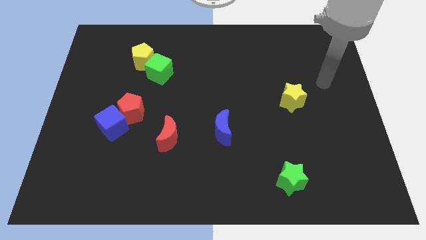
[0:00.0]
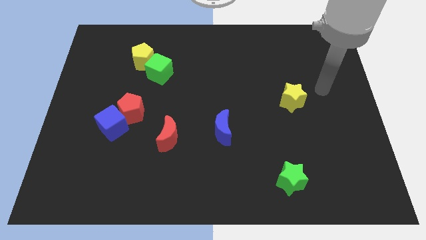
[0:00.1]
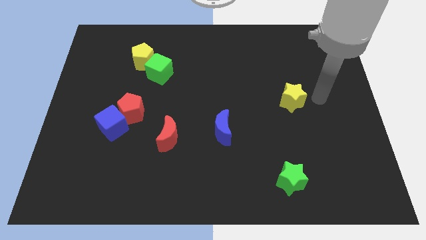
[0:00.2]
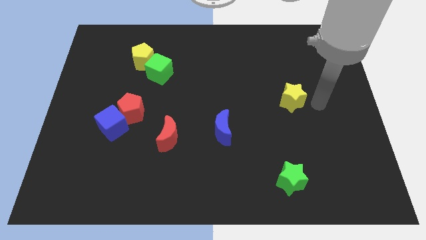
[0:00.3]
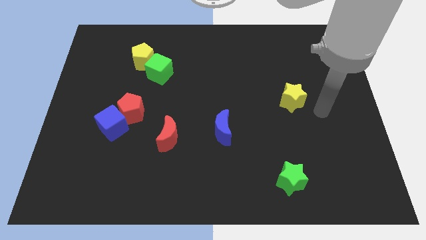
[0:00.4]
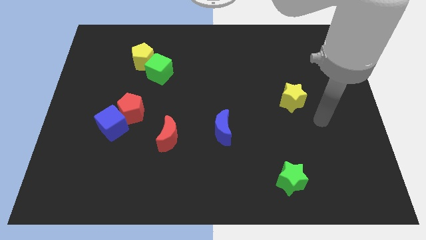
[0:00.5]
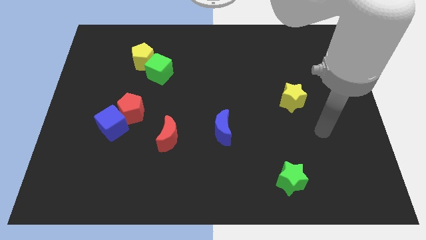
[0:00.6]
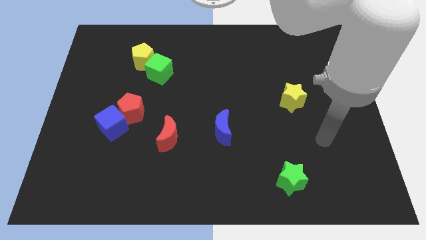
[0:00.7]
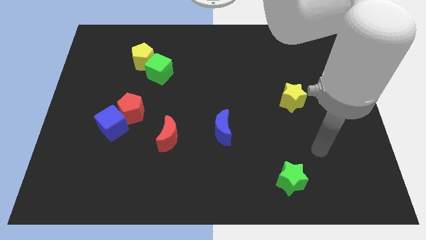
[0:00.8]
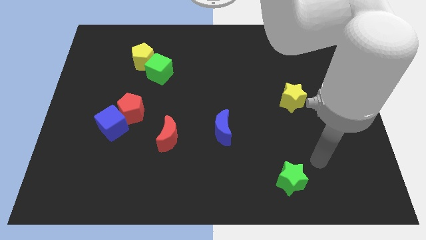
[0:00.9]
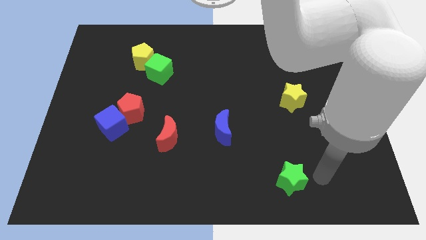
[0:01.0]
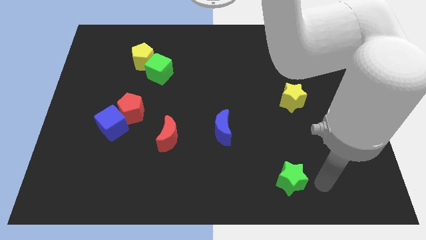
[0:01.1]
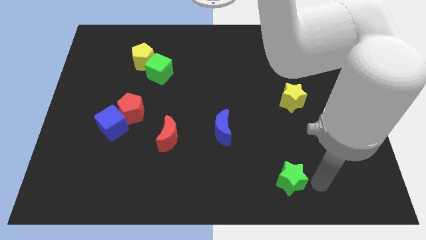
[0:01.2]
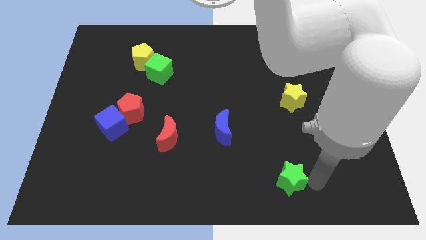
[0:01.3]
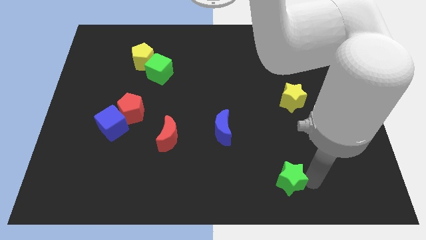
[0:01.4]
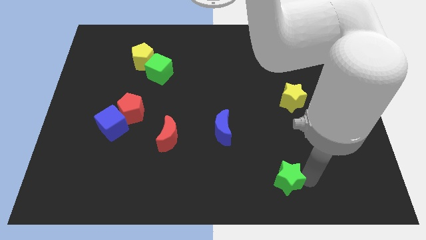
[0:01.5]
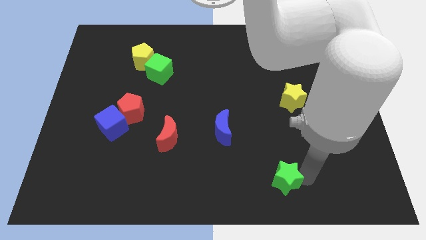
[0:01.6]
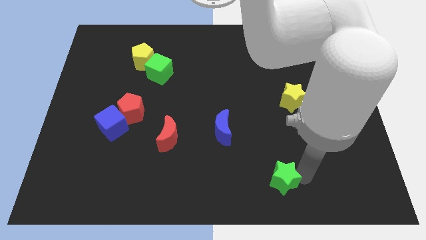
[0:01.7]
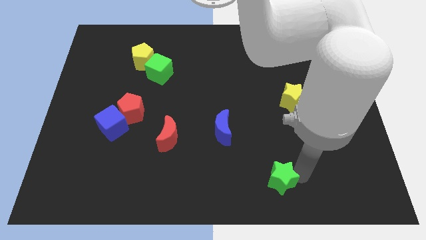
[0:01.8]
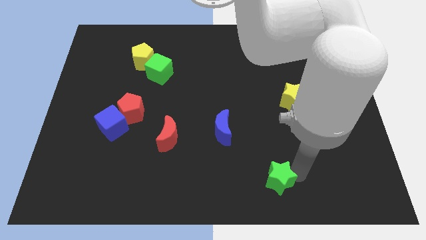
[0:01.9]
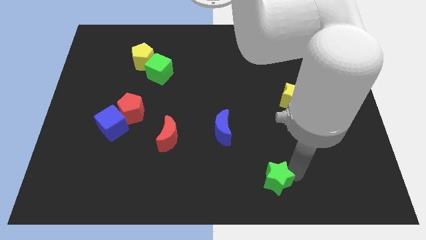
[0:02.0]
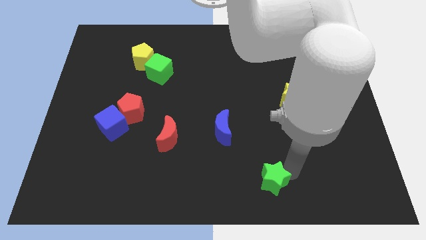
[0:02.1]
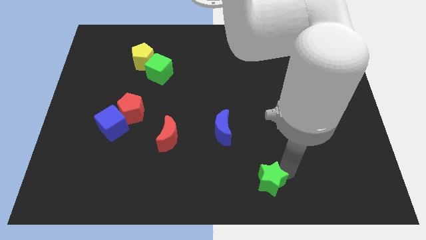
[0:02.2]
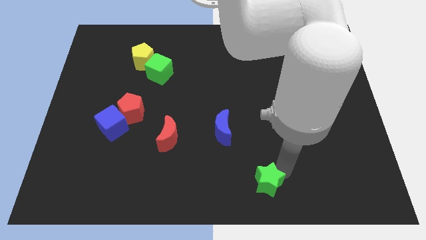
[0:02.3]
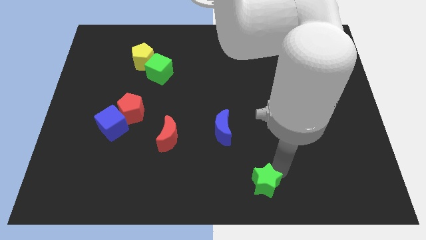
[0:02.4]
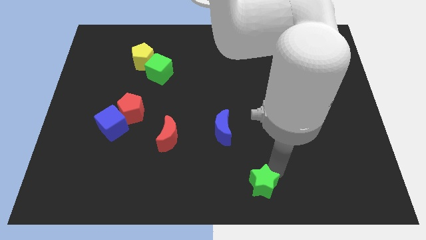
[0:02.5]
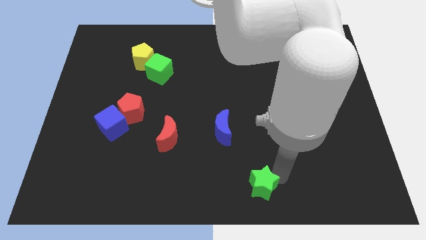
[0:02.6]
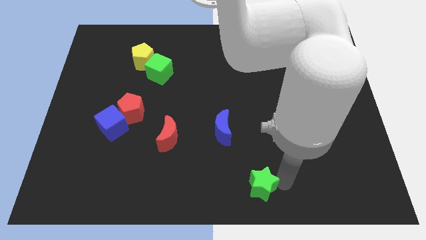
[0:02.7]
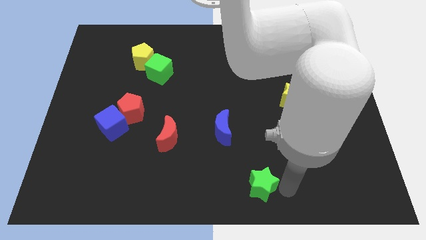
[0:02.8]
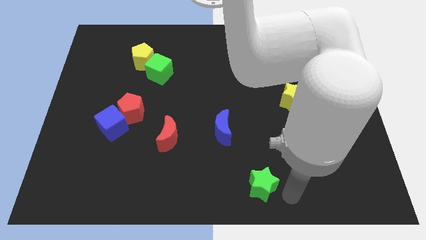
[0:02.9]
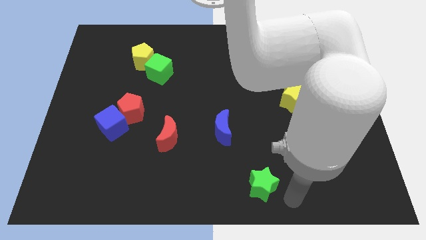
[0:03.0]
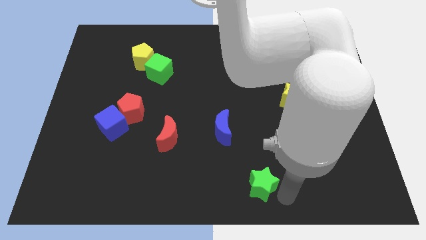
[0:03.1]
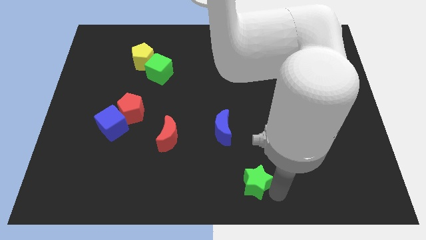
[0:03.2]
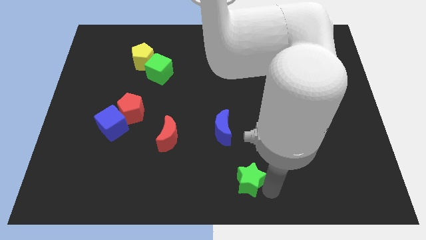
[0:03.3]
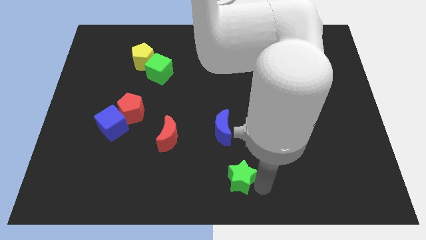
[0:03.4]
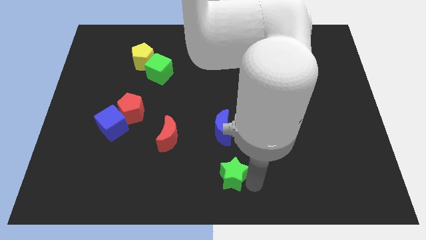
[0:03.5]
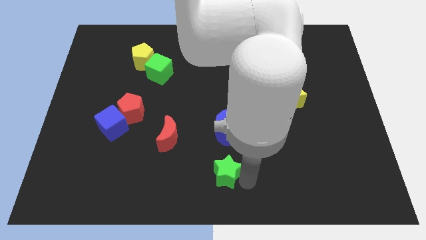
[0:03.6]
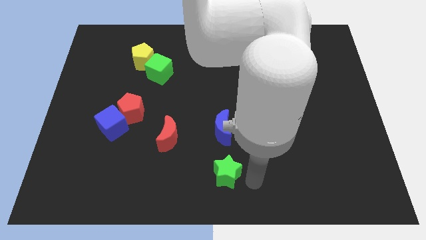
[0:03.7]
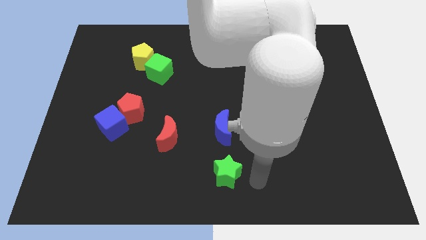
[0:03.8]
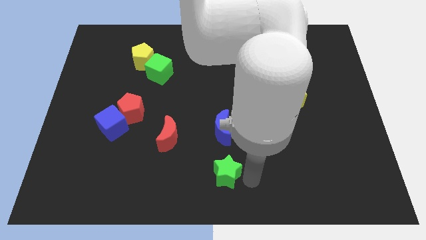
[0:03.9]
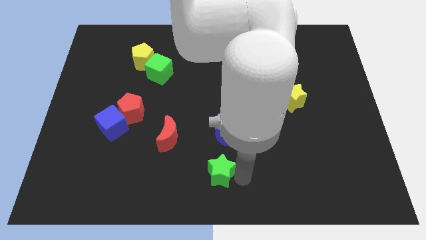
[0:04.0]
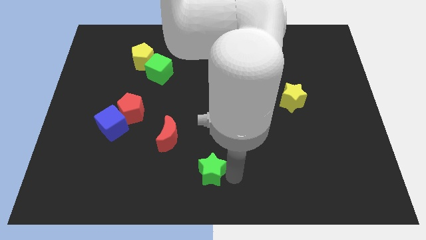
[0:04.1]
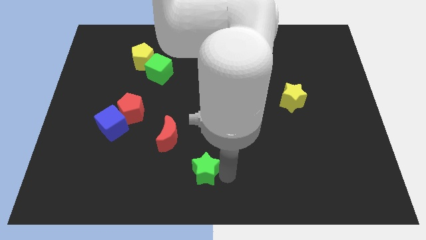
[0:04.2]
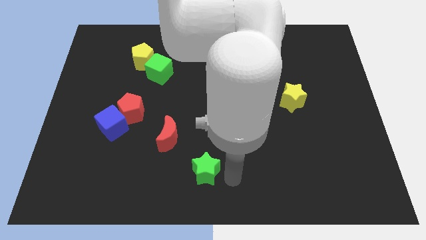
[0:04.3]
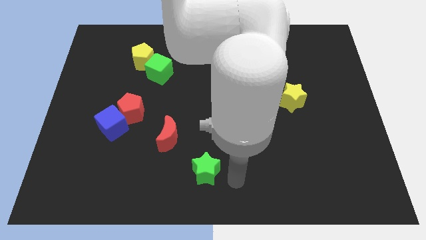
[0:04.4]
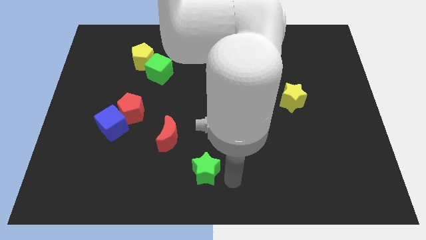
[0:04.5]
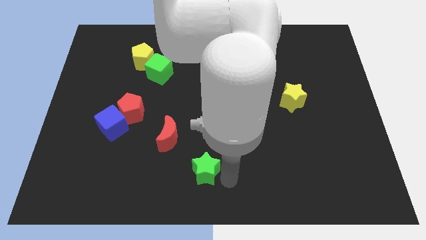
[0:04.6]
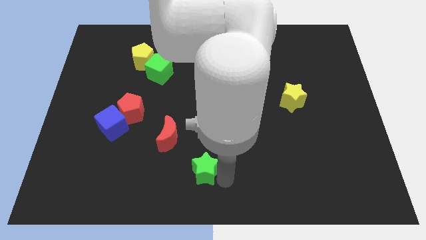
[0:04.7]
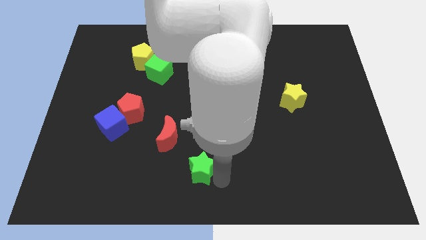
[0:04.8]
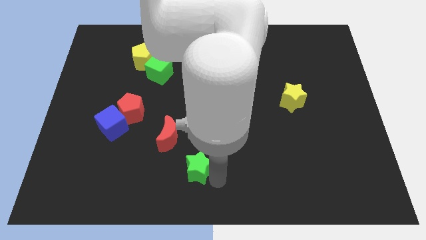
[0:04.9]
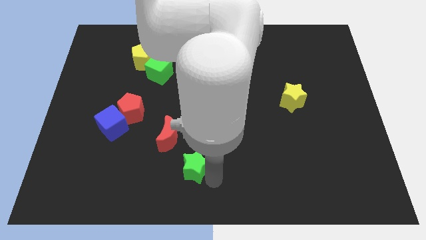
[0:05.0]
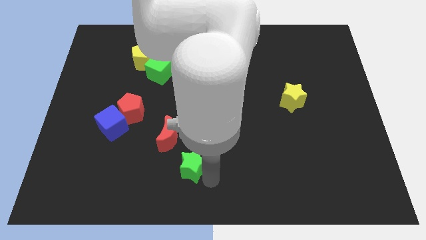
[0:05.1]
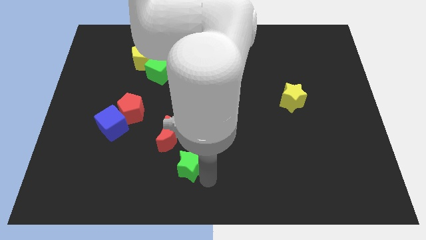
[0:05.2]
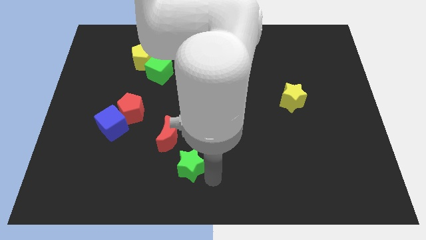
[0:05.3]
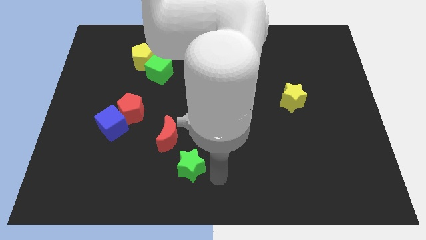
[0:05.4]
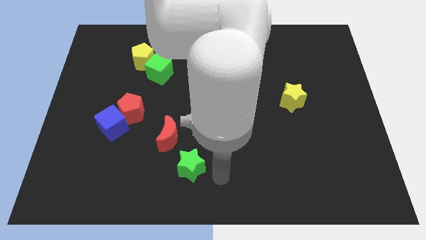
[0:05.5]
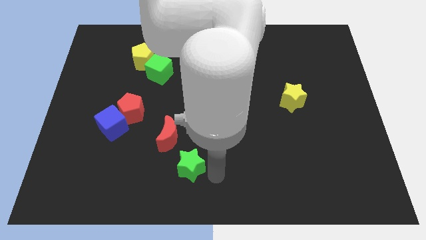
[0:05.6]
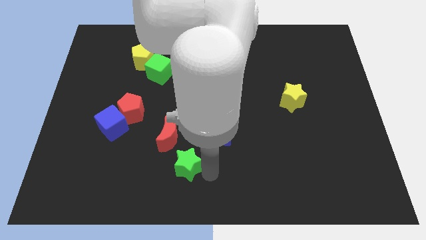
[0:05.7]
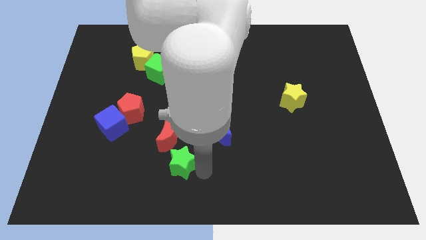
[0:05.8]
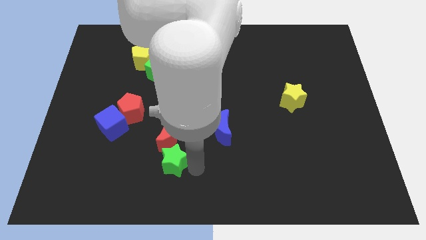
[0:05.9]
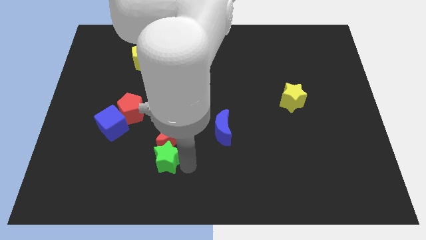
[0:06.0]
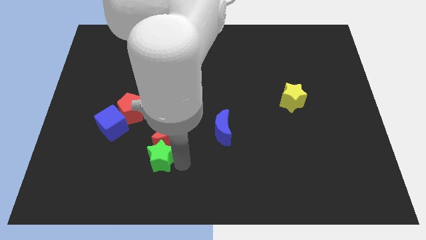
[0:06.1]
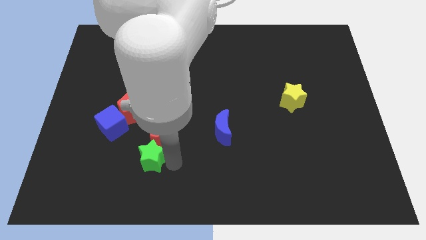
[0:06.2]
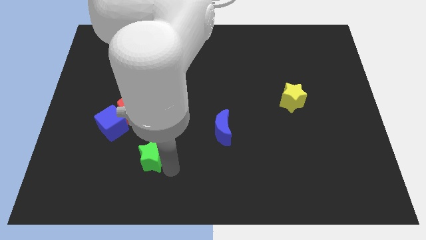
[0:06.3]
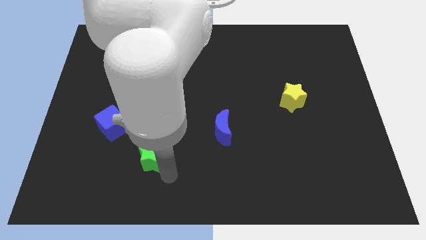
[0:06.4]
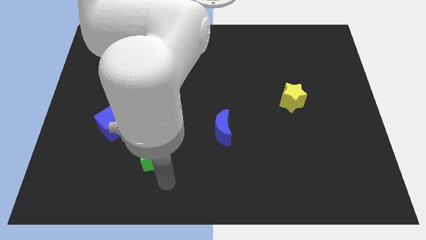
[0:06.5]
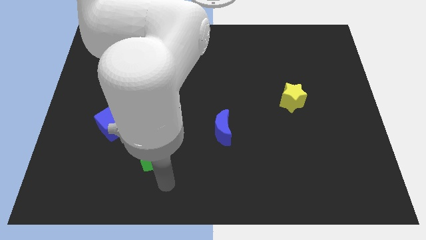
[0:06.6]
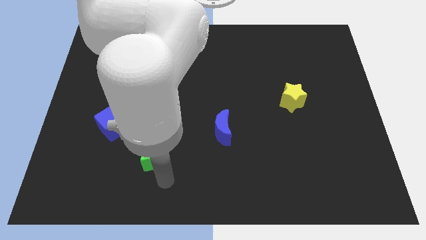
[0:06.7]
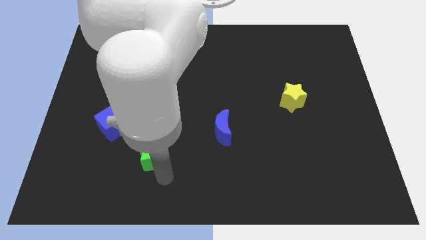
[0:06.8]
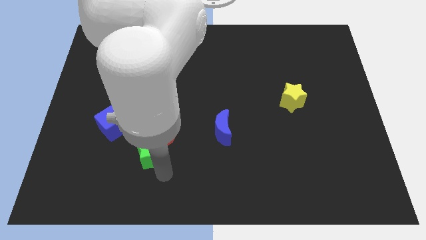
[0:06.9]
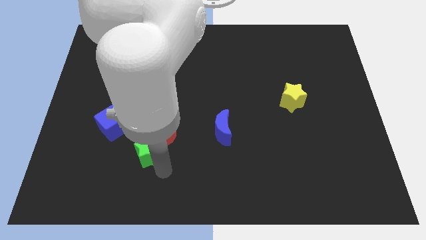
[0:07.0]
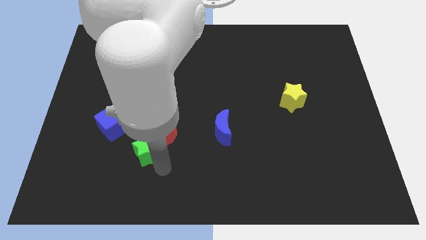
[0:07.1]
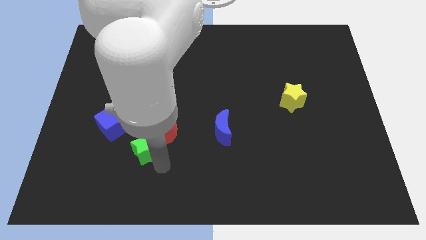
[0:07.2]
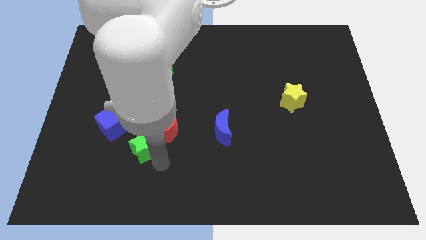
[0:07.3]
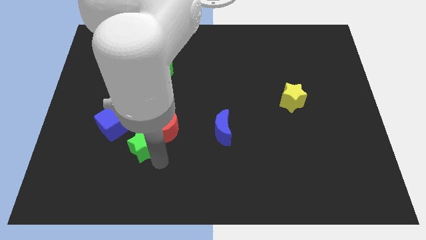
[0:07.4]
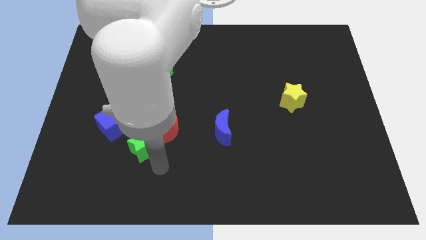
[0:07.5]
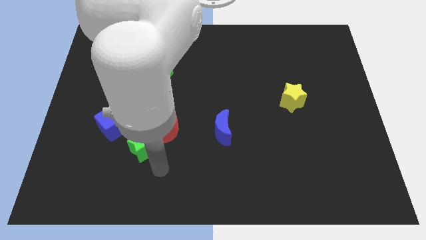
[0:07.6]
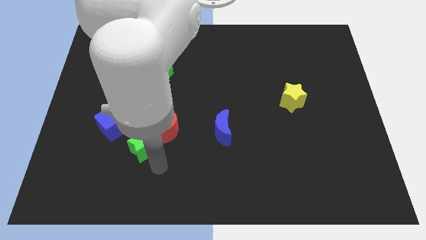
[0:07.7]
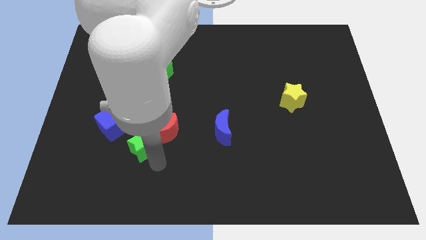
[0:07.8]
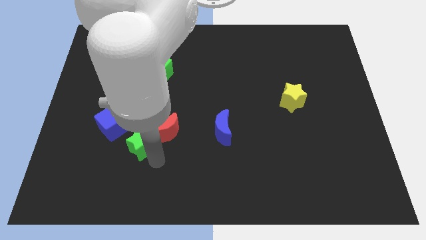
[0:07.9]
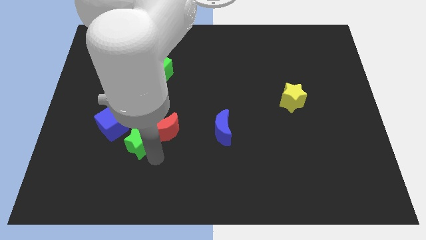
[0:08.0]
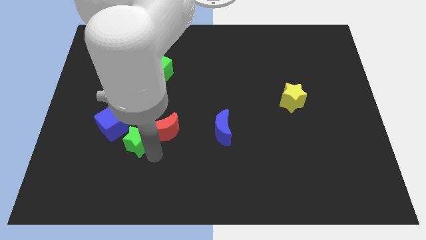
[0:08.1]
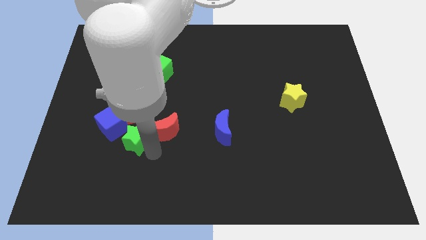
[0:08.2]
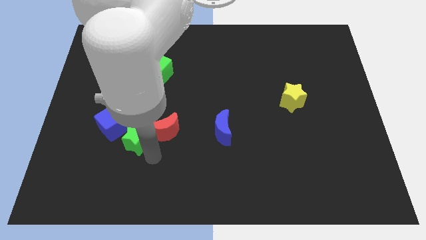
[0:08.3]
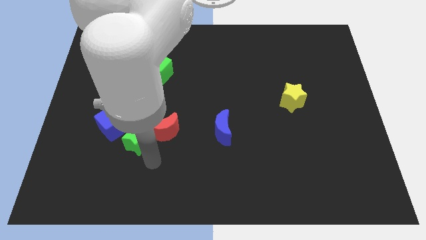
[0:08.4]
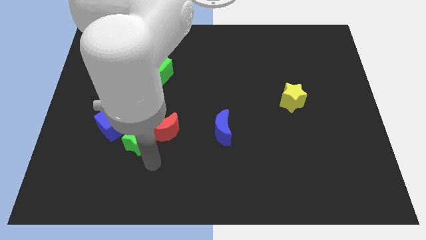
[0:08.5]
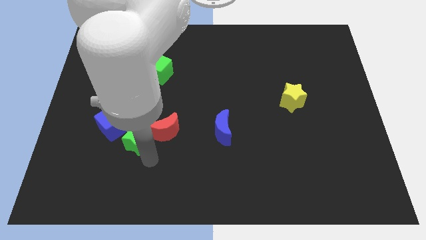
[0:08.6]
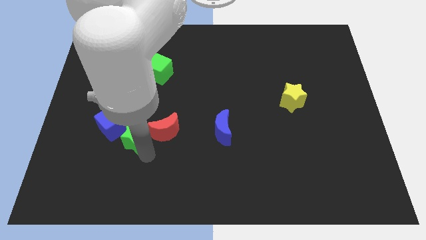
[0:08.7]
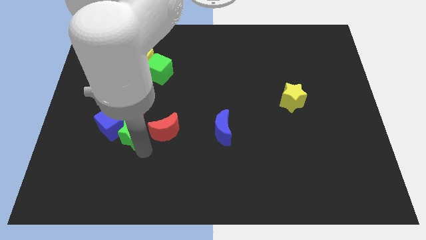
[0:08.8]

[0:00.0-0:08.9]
move the green star next to the blue cube
